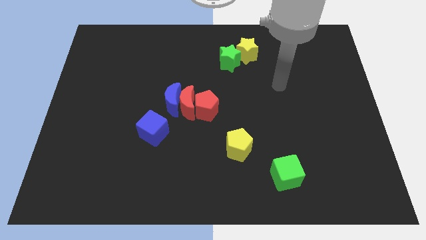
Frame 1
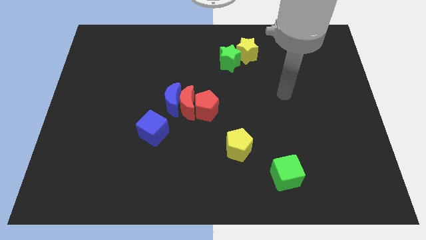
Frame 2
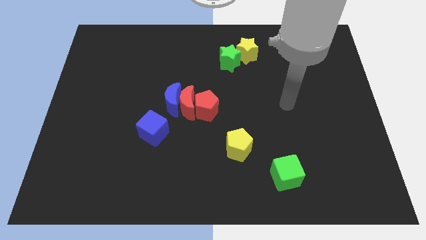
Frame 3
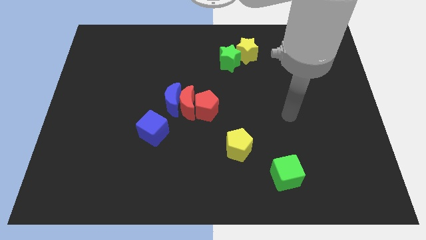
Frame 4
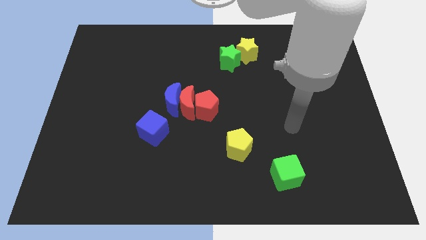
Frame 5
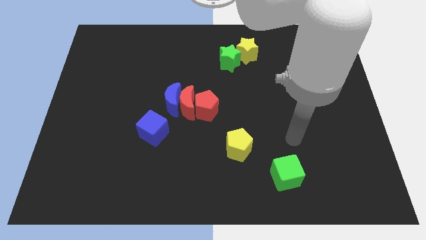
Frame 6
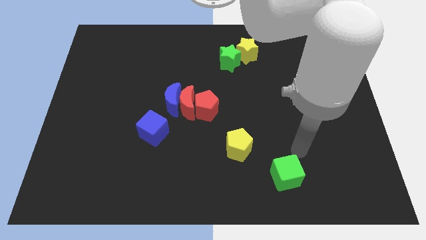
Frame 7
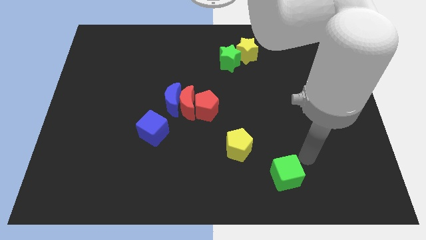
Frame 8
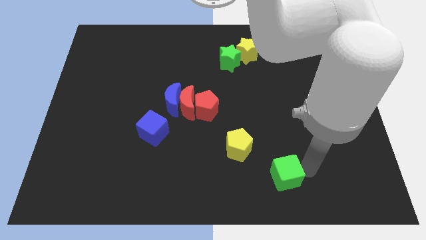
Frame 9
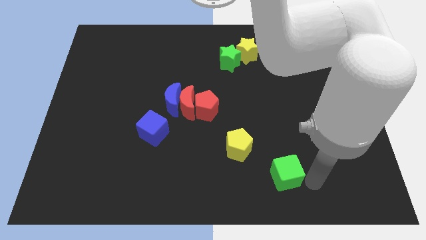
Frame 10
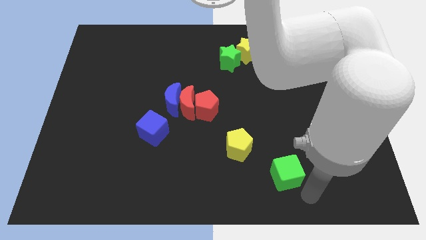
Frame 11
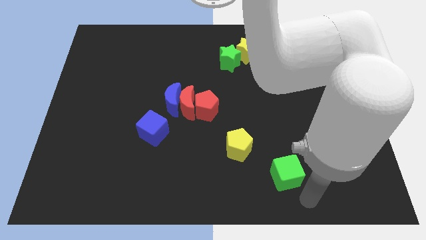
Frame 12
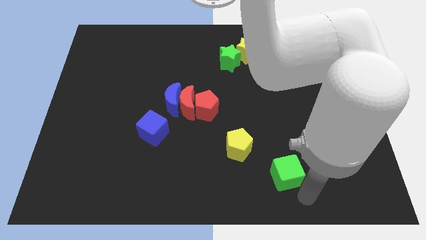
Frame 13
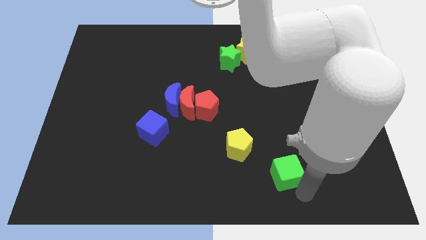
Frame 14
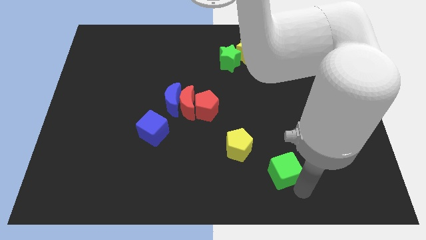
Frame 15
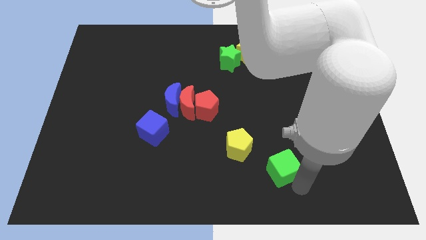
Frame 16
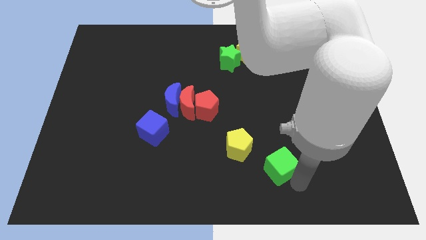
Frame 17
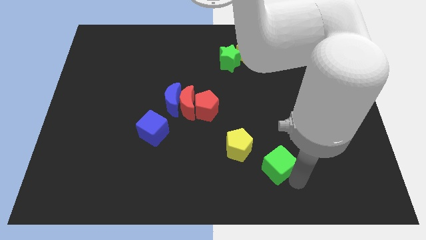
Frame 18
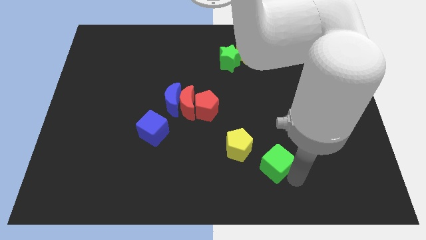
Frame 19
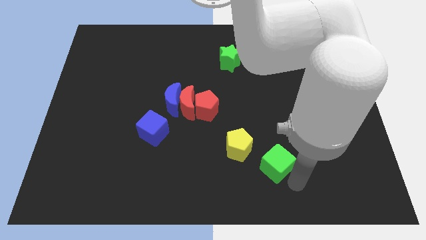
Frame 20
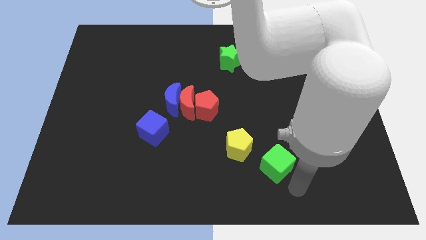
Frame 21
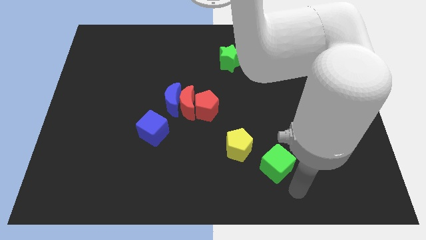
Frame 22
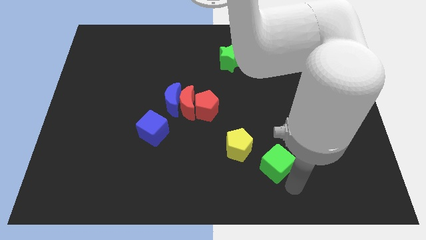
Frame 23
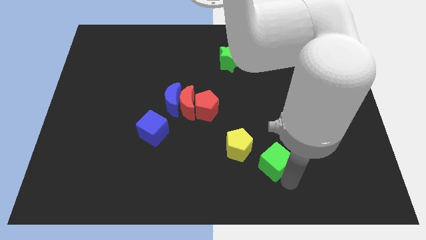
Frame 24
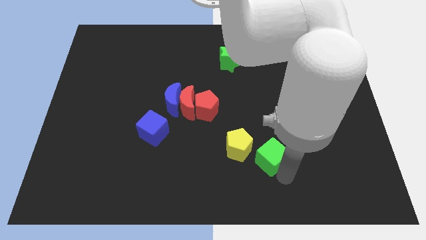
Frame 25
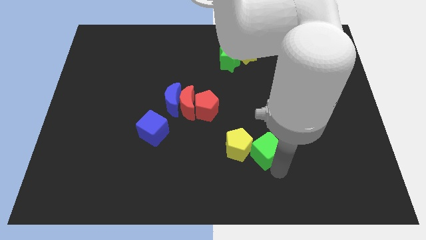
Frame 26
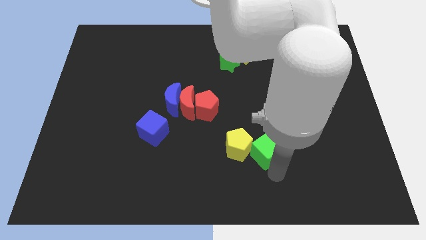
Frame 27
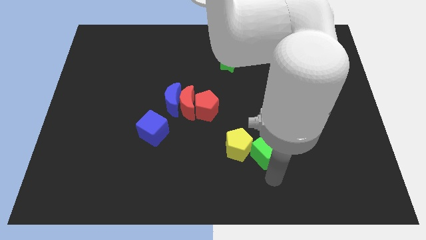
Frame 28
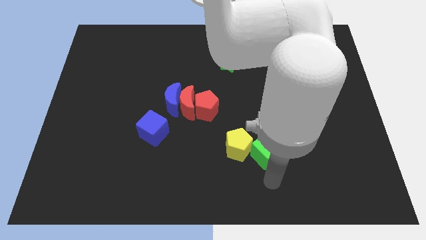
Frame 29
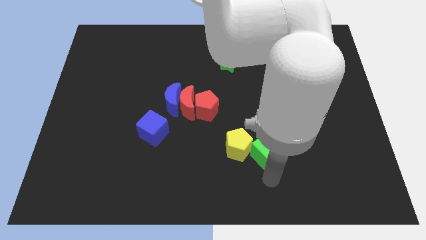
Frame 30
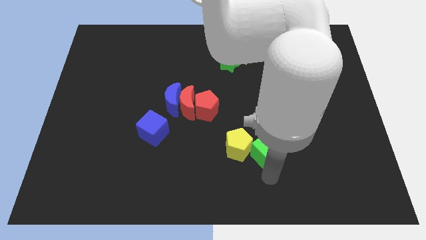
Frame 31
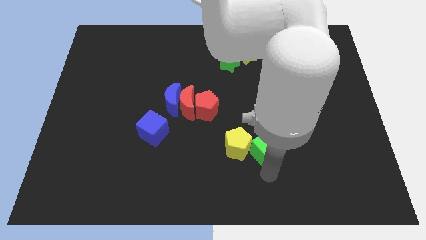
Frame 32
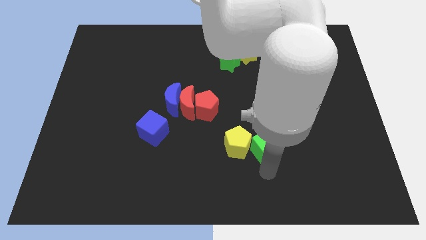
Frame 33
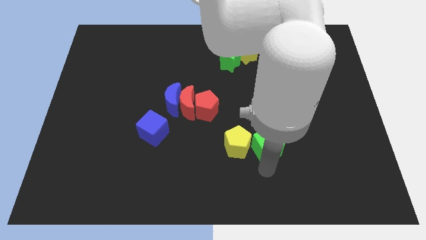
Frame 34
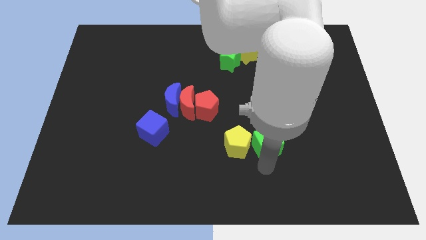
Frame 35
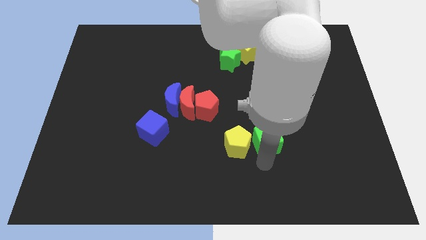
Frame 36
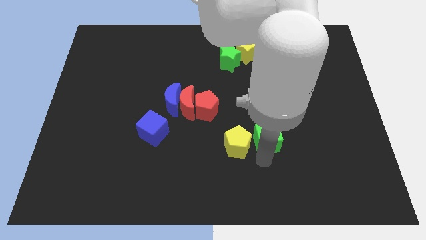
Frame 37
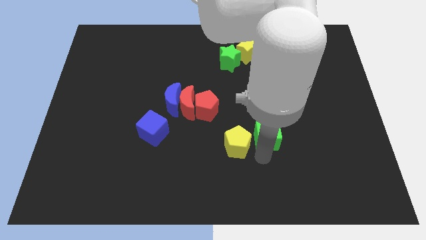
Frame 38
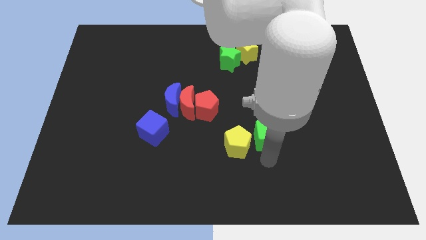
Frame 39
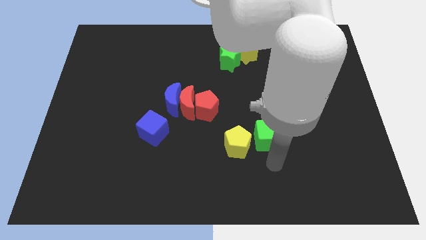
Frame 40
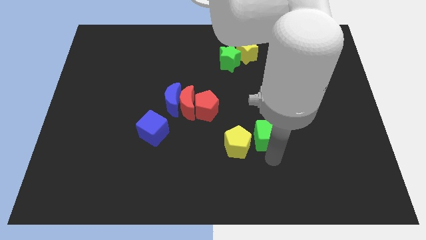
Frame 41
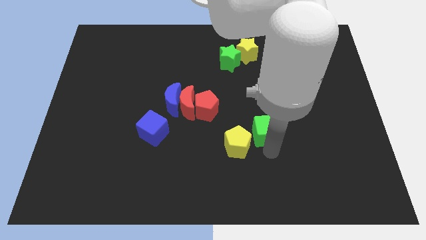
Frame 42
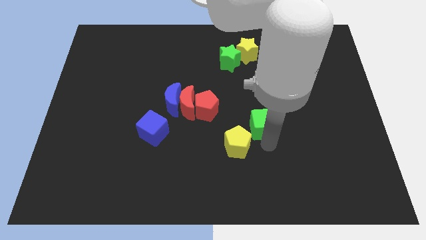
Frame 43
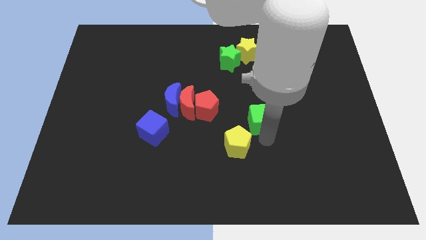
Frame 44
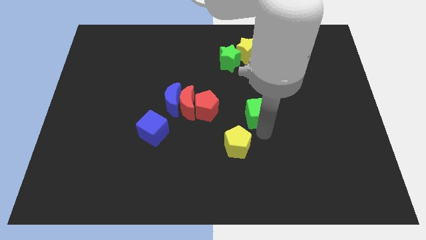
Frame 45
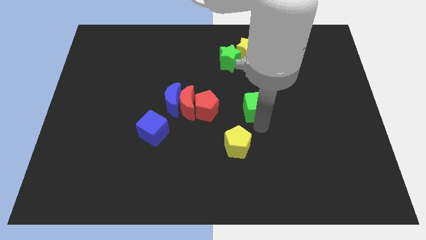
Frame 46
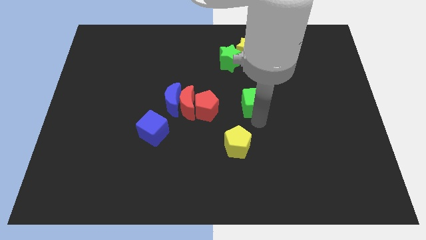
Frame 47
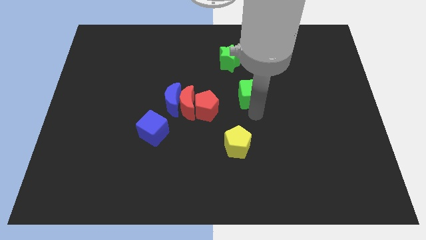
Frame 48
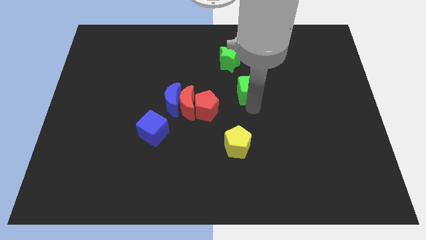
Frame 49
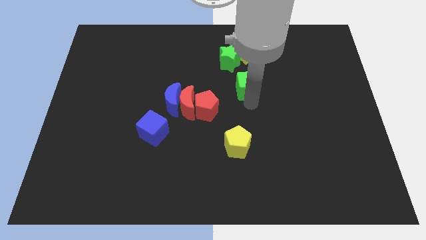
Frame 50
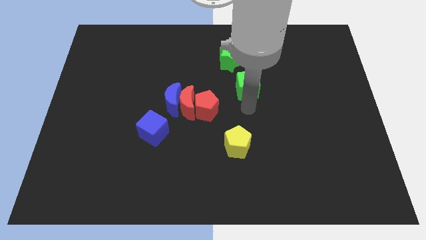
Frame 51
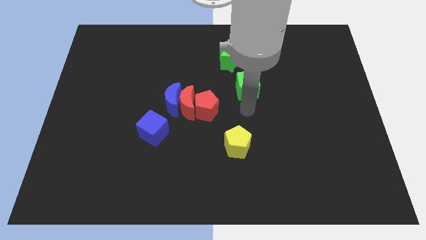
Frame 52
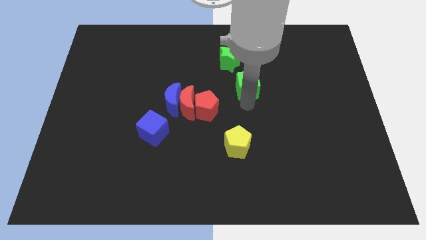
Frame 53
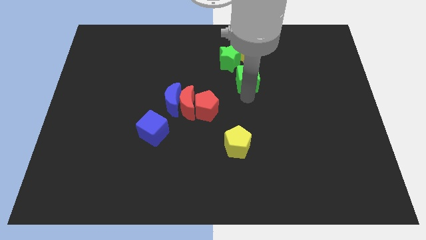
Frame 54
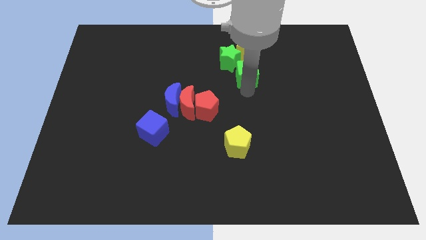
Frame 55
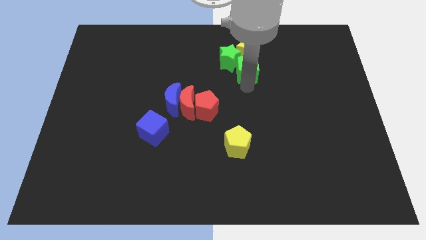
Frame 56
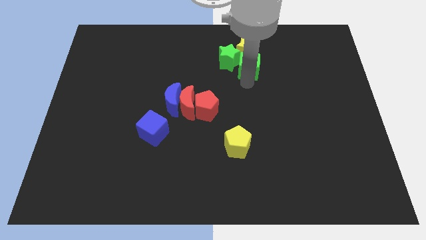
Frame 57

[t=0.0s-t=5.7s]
move the green cube towards the yellow star

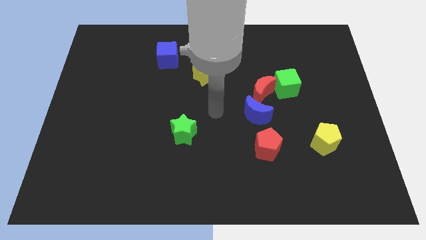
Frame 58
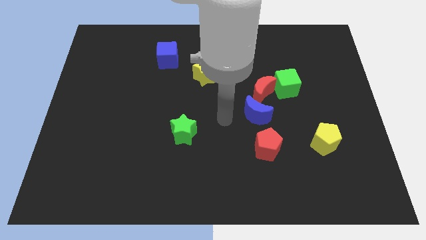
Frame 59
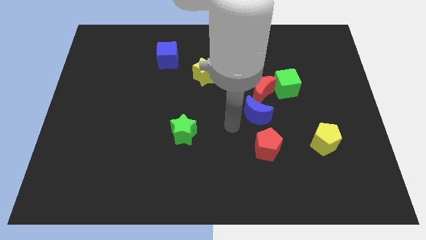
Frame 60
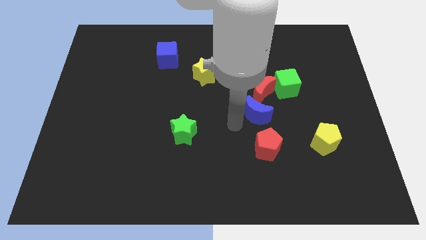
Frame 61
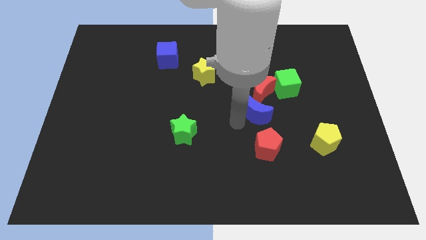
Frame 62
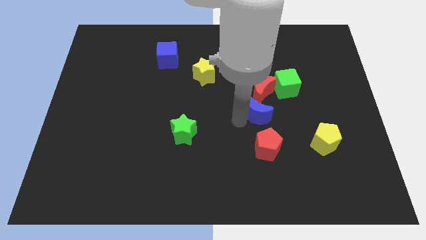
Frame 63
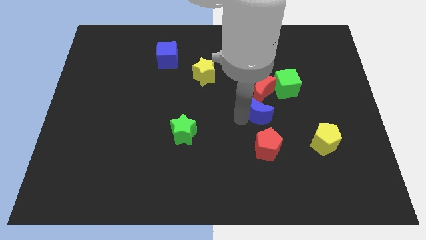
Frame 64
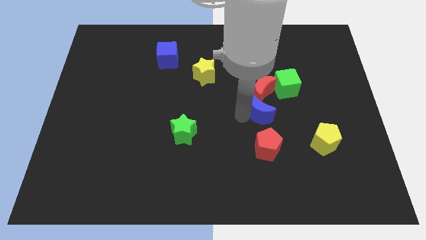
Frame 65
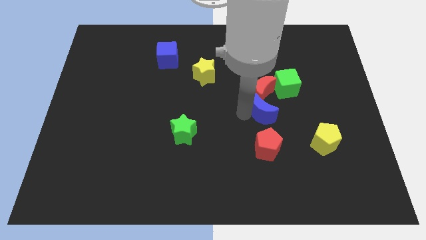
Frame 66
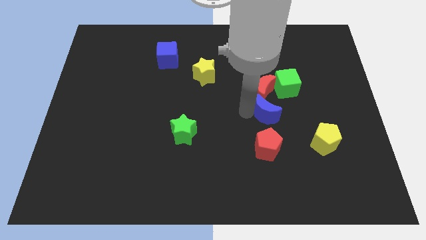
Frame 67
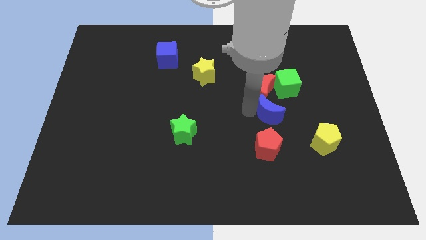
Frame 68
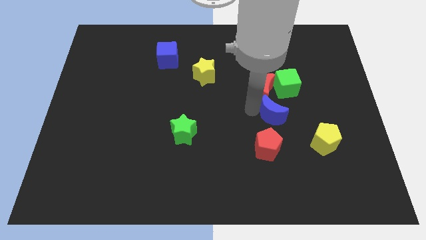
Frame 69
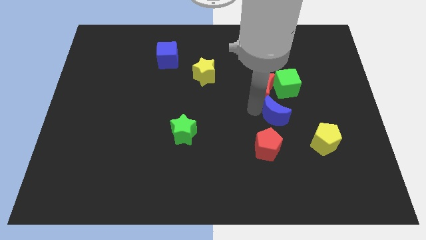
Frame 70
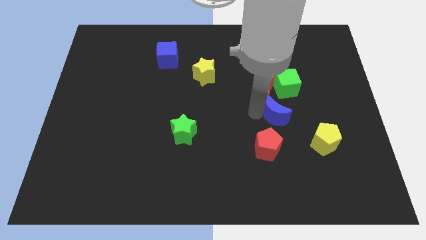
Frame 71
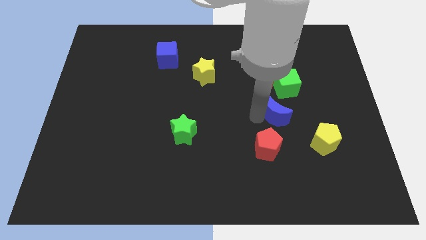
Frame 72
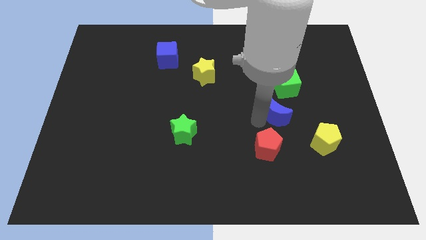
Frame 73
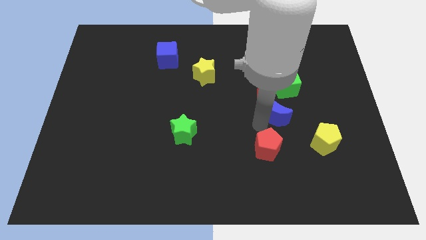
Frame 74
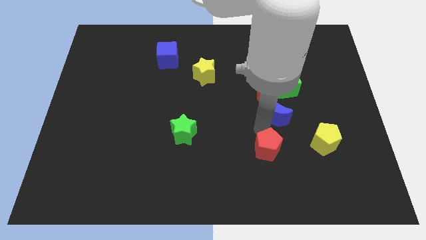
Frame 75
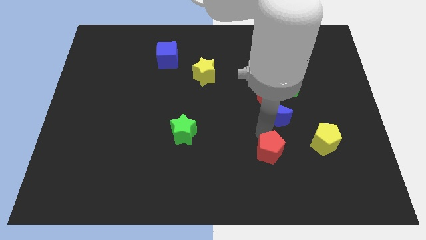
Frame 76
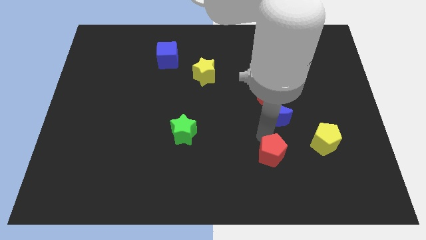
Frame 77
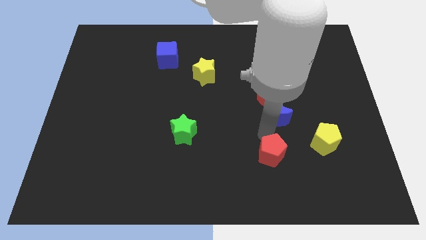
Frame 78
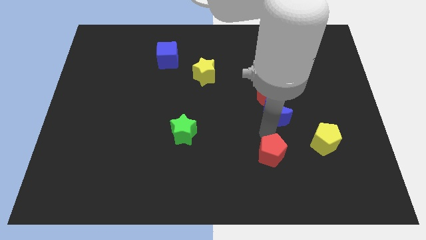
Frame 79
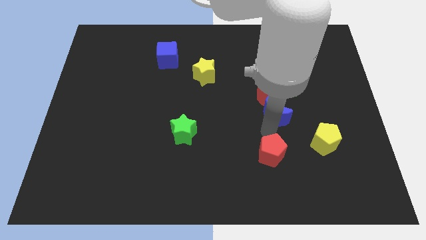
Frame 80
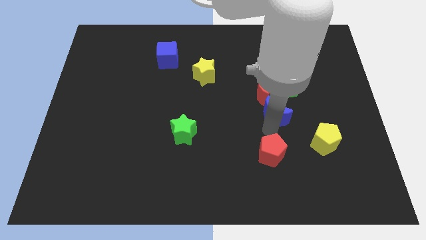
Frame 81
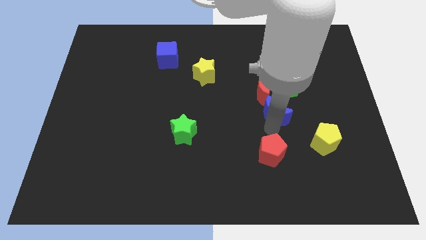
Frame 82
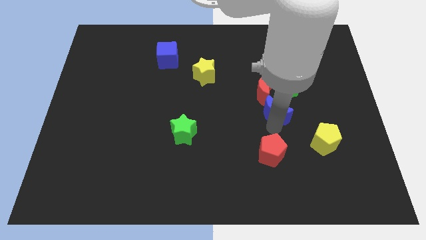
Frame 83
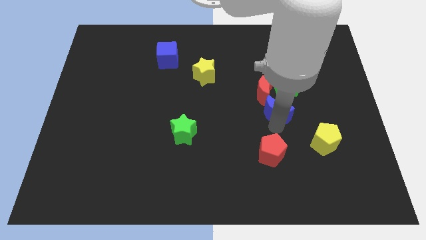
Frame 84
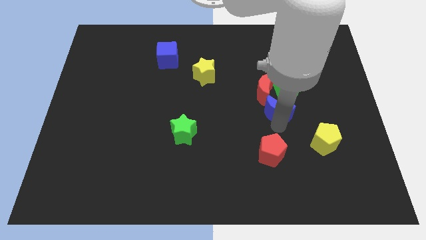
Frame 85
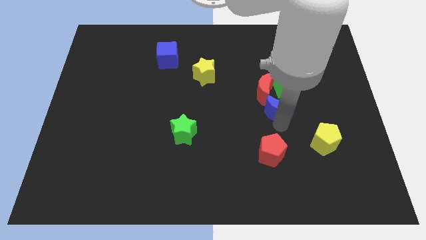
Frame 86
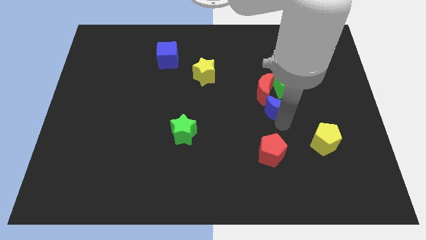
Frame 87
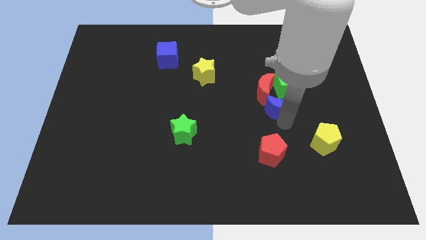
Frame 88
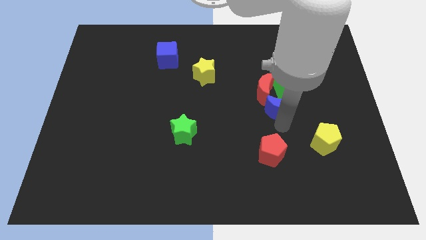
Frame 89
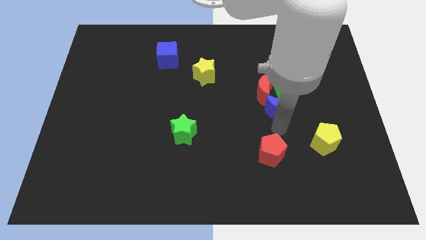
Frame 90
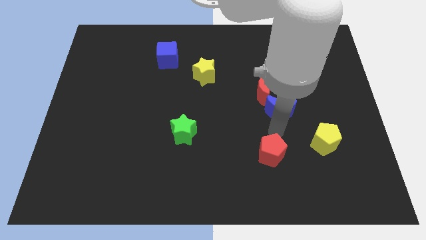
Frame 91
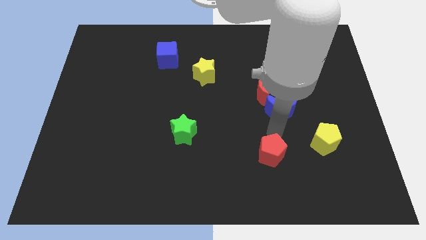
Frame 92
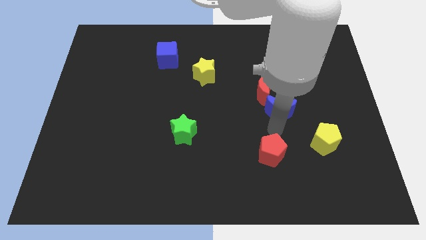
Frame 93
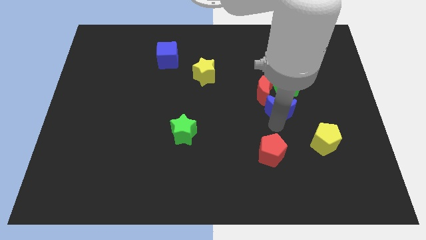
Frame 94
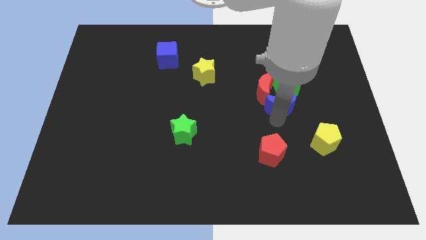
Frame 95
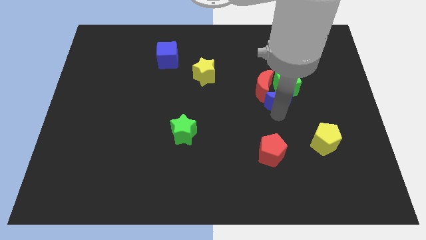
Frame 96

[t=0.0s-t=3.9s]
move the blue moon towards the green cube
